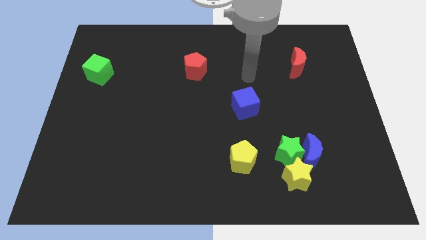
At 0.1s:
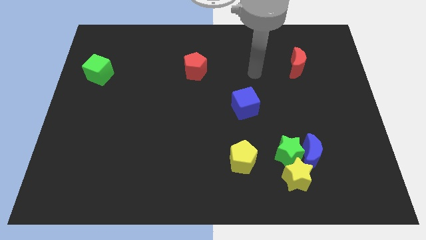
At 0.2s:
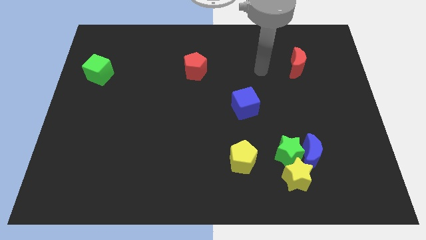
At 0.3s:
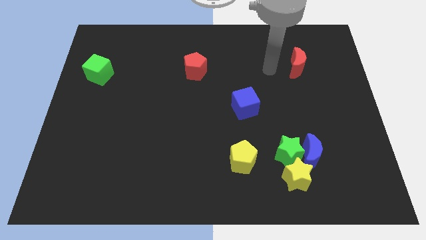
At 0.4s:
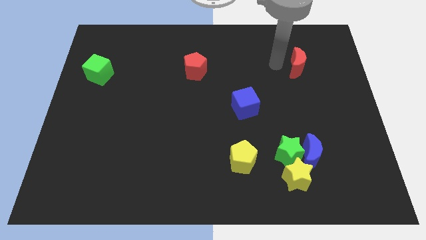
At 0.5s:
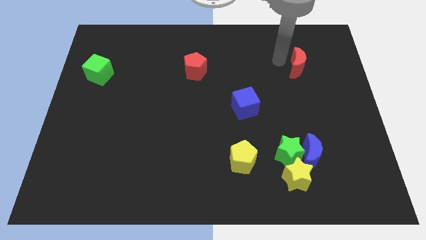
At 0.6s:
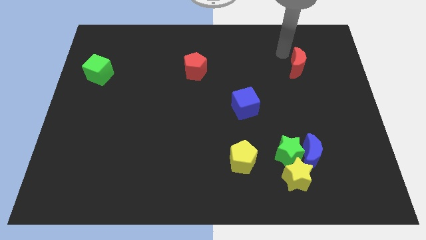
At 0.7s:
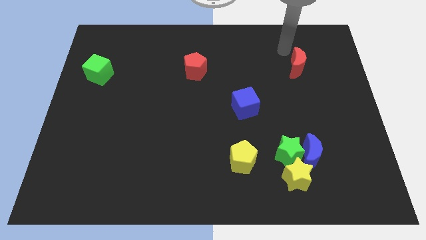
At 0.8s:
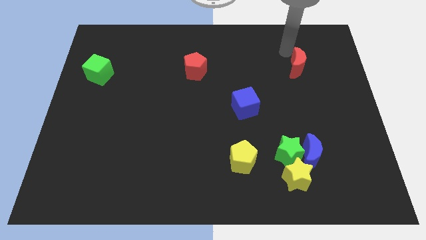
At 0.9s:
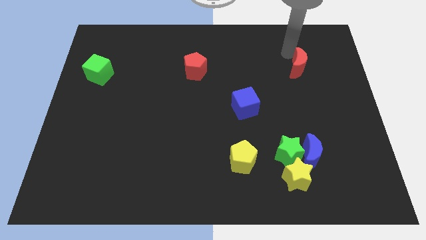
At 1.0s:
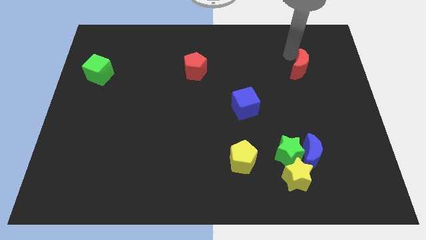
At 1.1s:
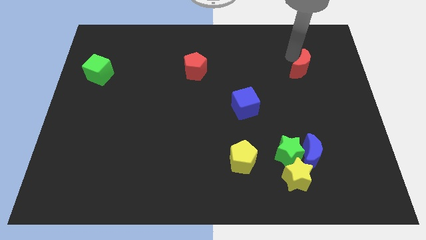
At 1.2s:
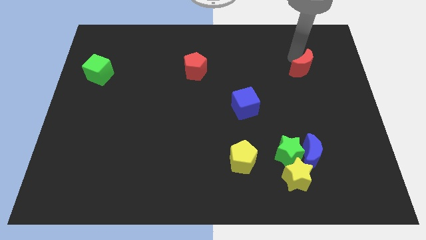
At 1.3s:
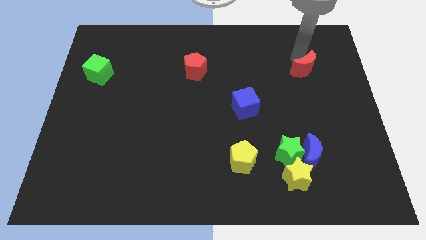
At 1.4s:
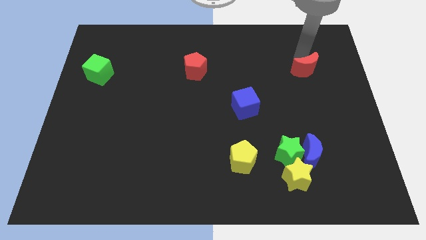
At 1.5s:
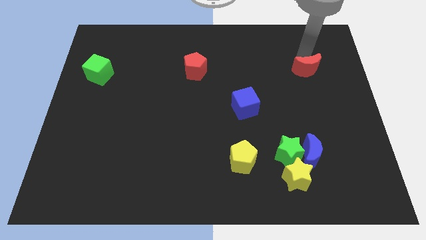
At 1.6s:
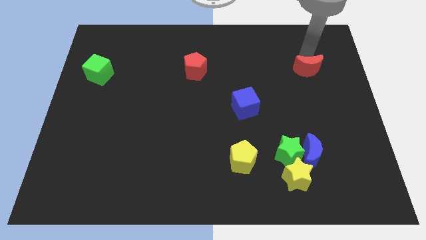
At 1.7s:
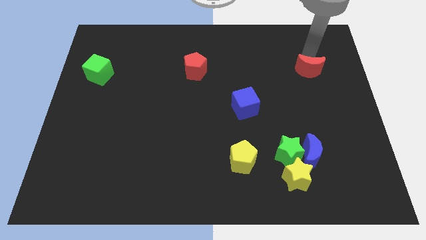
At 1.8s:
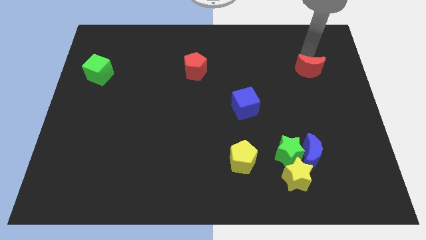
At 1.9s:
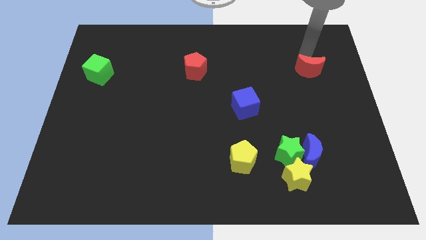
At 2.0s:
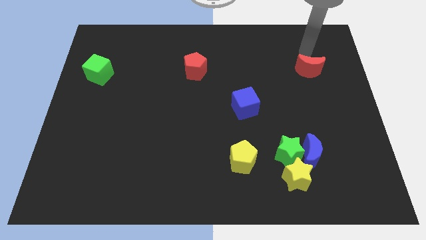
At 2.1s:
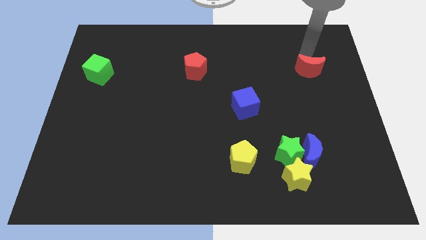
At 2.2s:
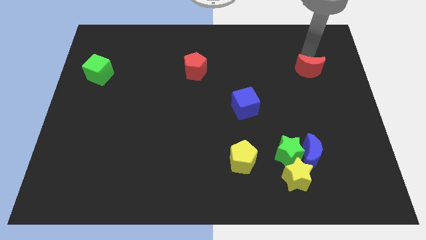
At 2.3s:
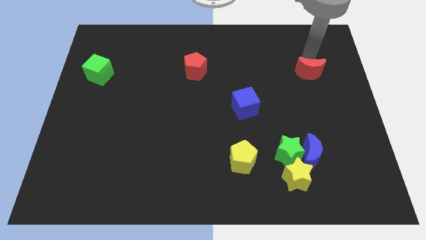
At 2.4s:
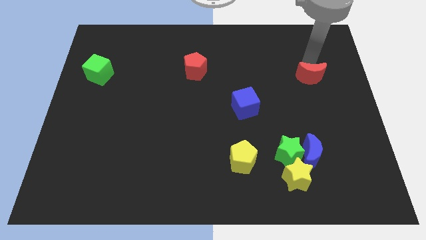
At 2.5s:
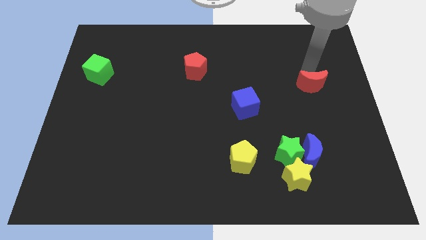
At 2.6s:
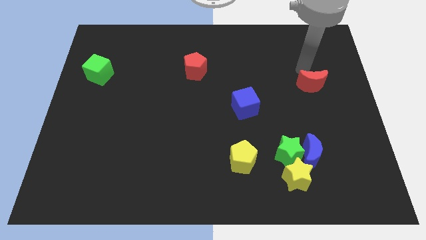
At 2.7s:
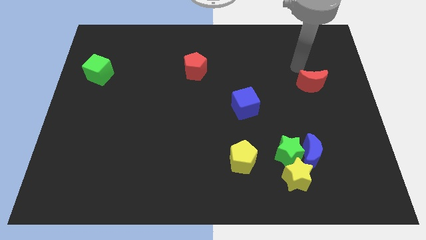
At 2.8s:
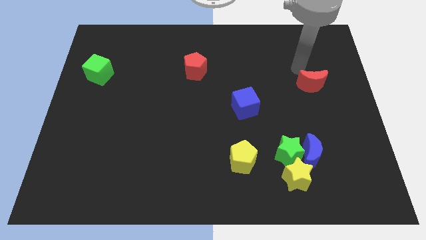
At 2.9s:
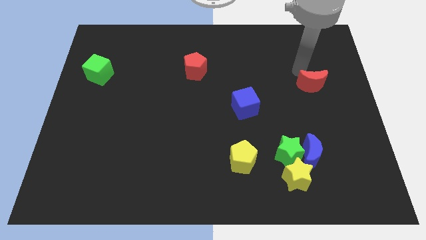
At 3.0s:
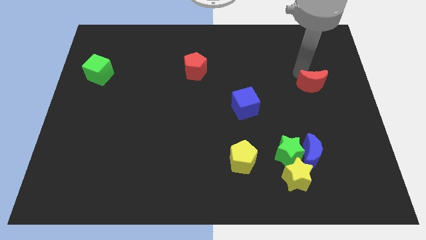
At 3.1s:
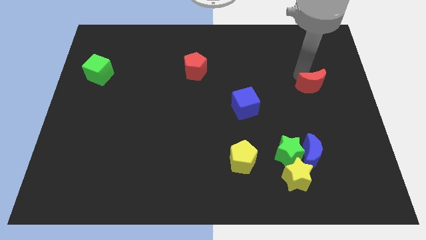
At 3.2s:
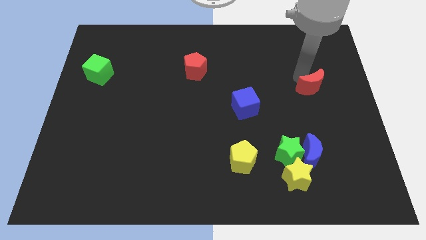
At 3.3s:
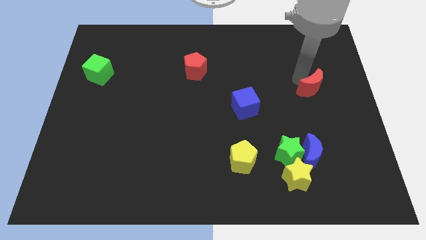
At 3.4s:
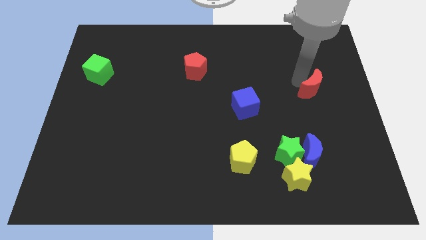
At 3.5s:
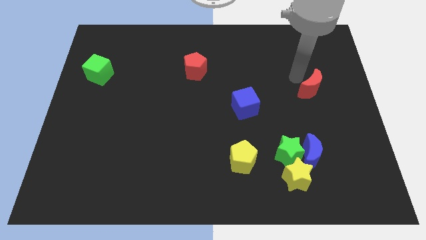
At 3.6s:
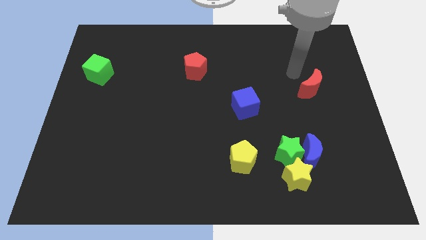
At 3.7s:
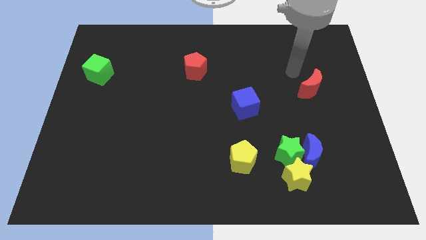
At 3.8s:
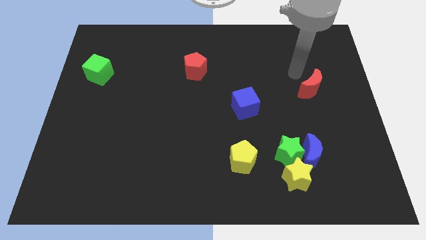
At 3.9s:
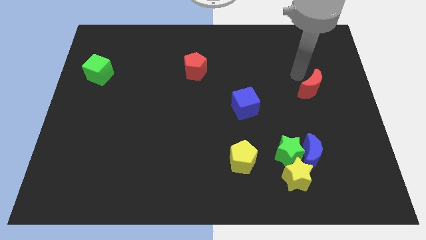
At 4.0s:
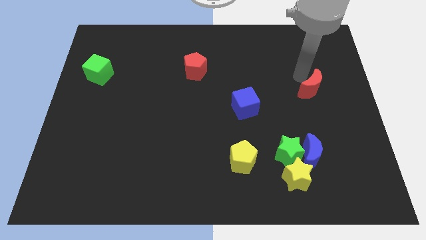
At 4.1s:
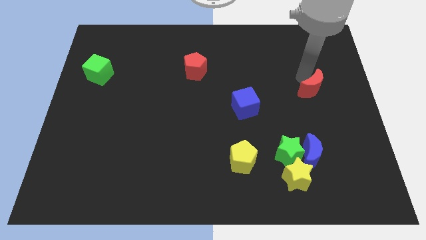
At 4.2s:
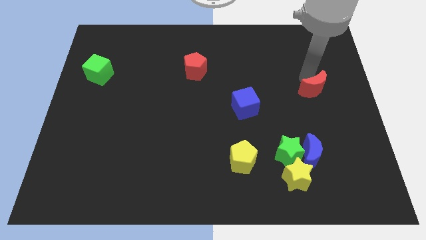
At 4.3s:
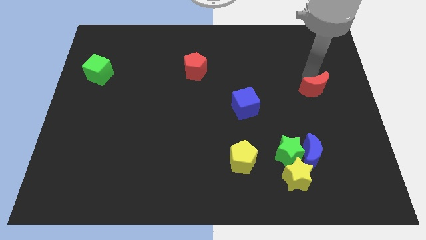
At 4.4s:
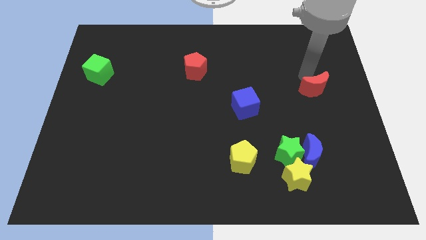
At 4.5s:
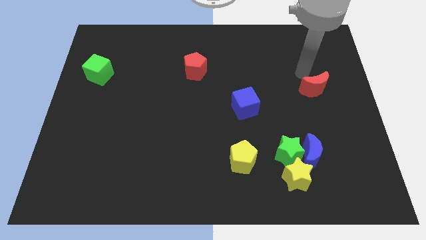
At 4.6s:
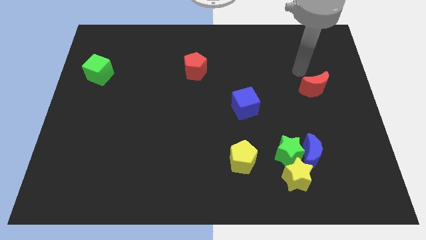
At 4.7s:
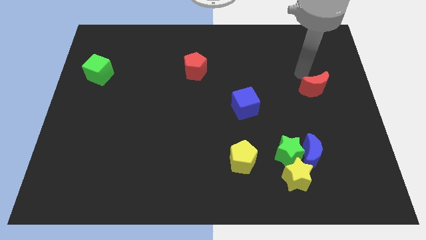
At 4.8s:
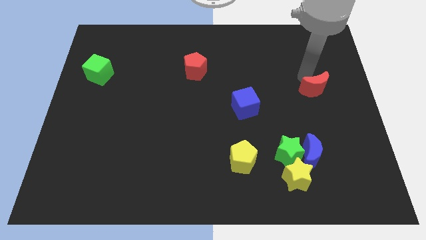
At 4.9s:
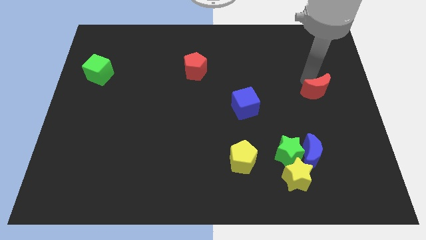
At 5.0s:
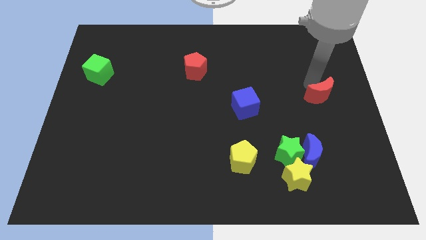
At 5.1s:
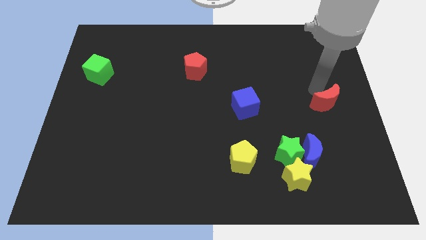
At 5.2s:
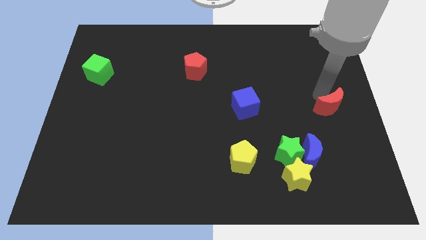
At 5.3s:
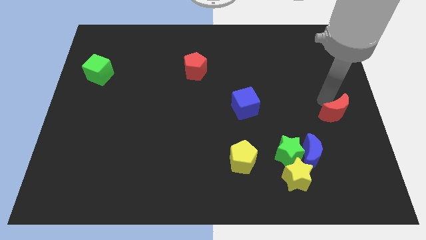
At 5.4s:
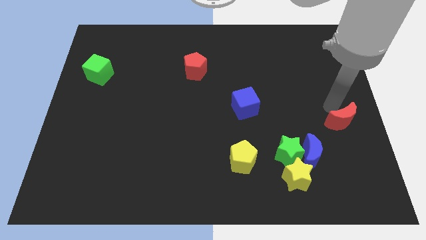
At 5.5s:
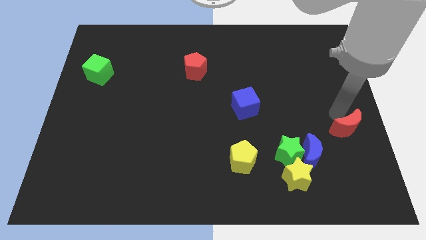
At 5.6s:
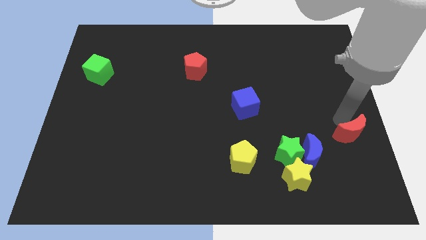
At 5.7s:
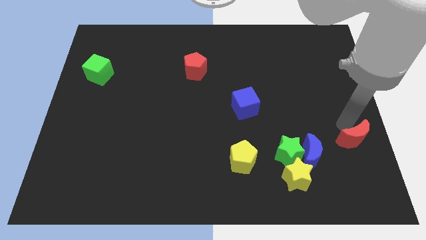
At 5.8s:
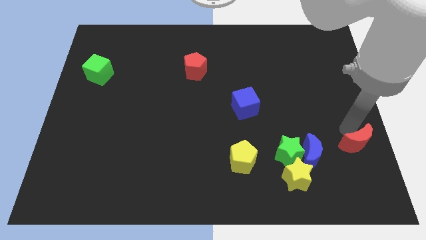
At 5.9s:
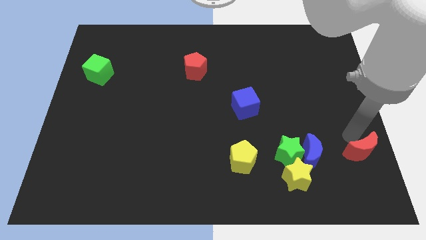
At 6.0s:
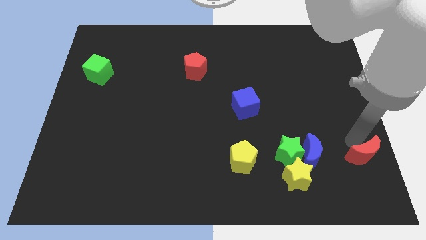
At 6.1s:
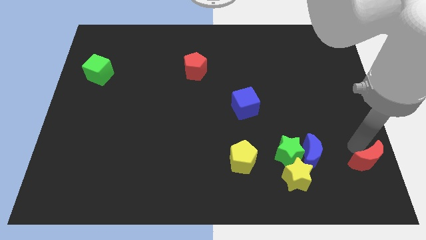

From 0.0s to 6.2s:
slide the red moon to the bottom right of the board

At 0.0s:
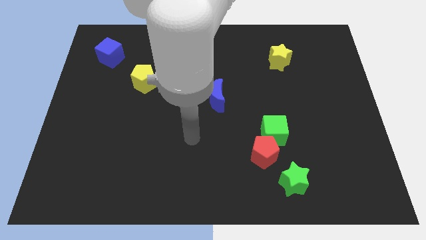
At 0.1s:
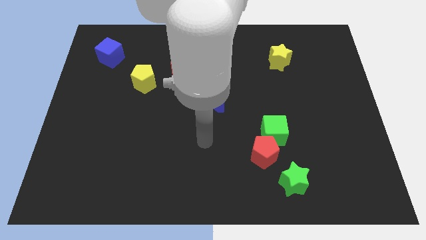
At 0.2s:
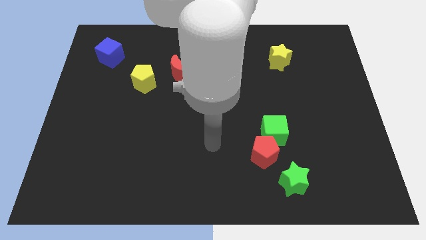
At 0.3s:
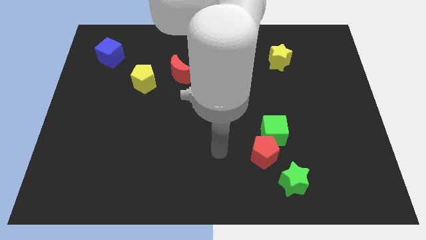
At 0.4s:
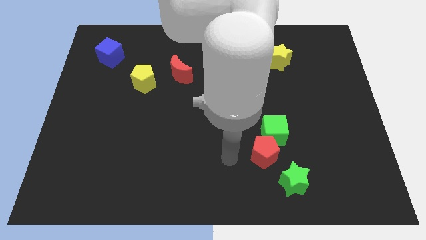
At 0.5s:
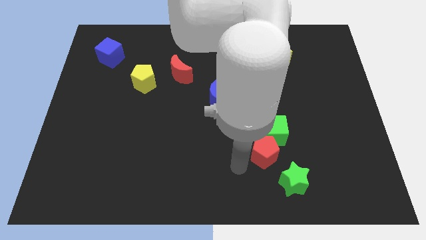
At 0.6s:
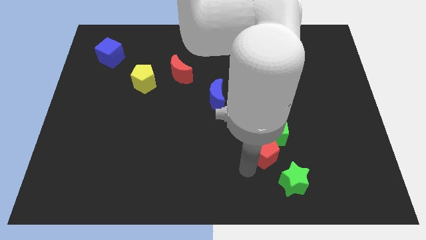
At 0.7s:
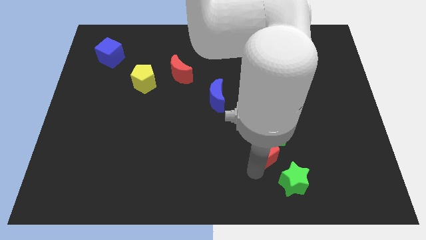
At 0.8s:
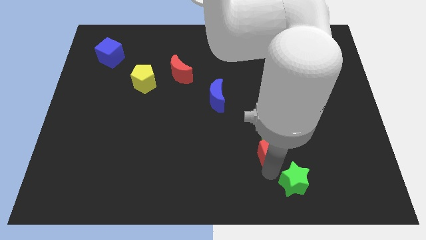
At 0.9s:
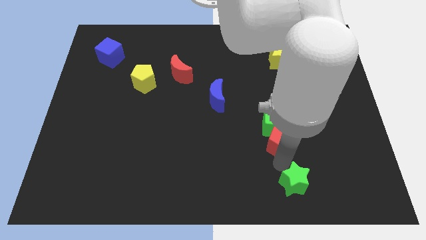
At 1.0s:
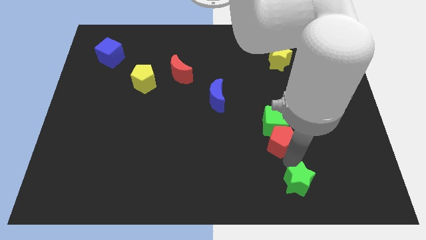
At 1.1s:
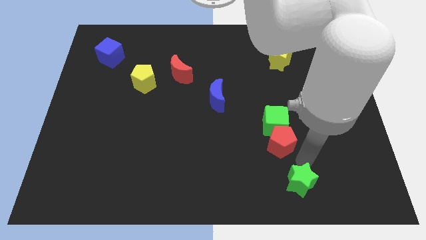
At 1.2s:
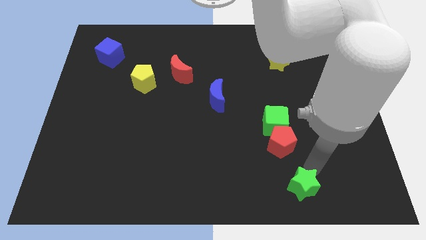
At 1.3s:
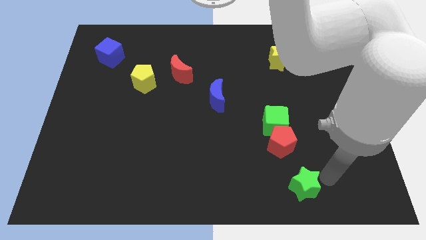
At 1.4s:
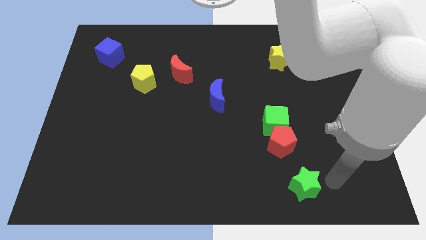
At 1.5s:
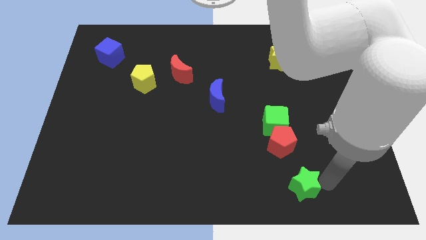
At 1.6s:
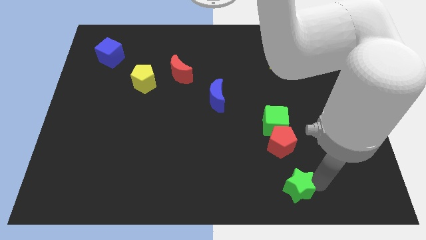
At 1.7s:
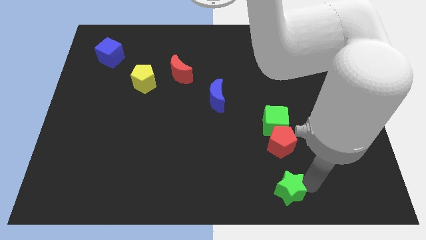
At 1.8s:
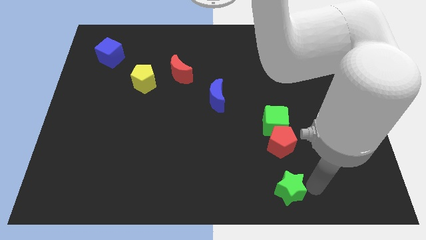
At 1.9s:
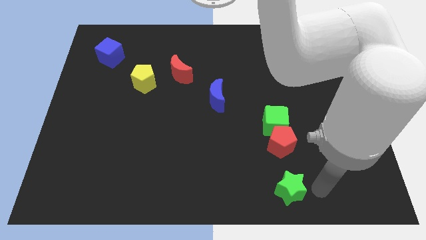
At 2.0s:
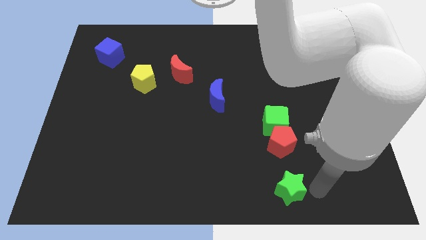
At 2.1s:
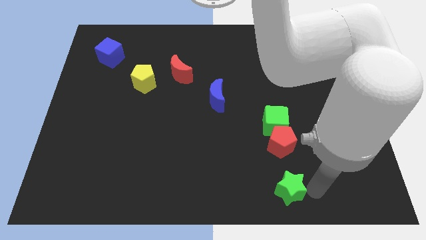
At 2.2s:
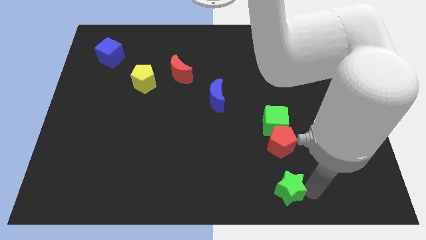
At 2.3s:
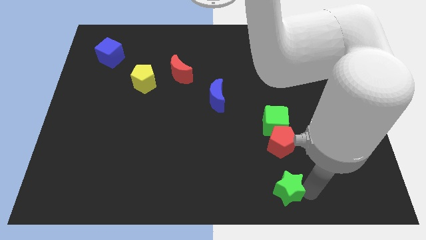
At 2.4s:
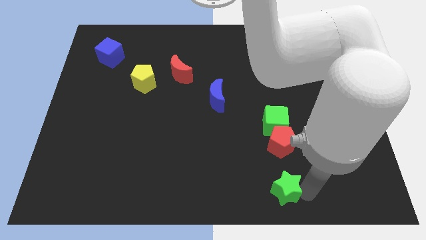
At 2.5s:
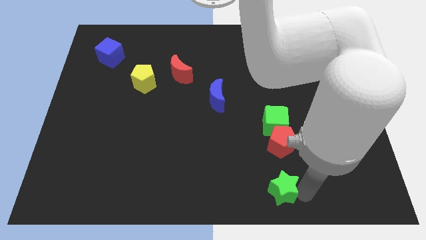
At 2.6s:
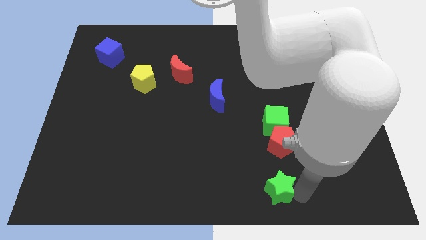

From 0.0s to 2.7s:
push the green star to the bottom
